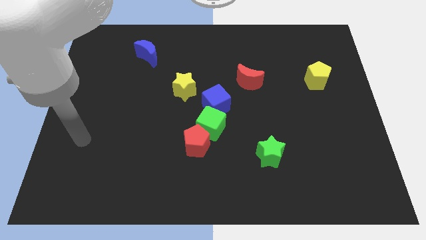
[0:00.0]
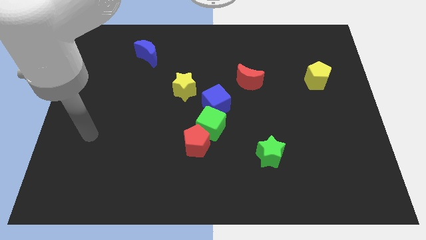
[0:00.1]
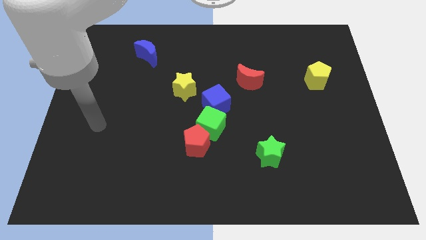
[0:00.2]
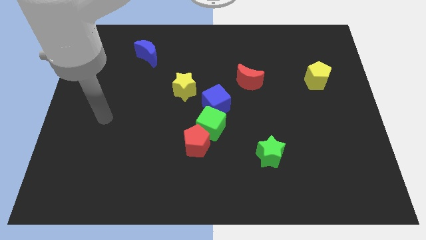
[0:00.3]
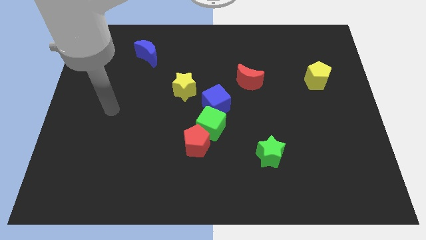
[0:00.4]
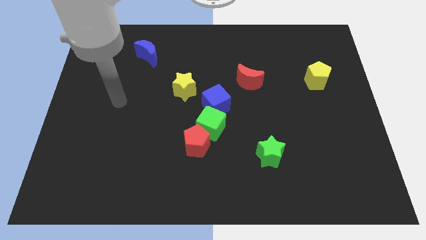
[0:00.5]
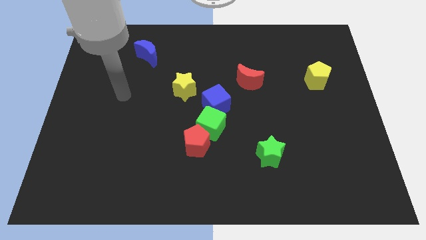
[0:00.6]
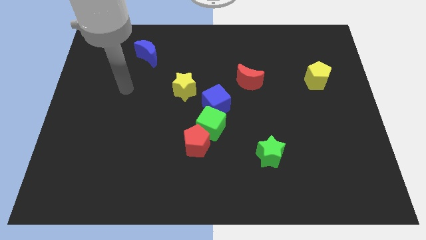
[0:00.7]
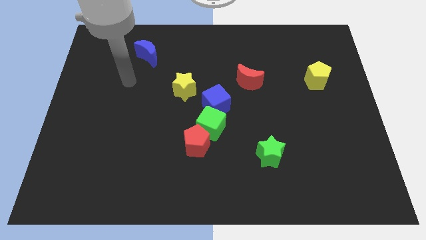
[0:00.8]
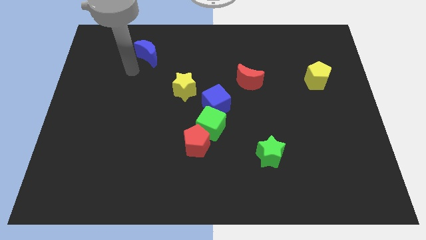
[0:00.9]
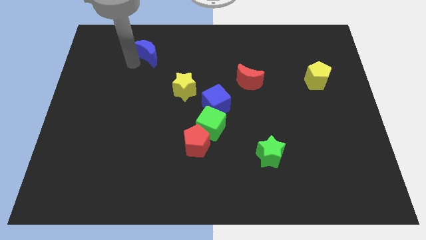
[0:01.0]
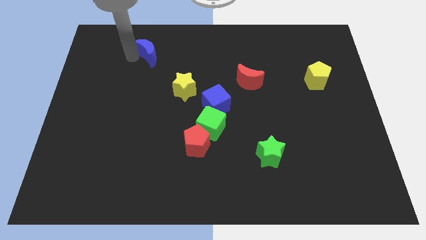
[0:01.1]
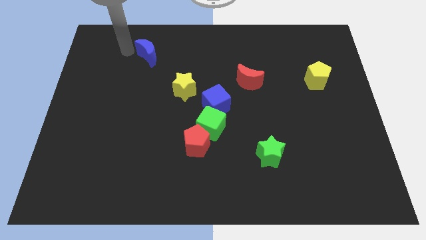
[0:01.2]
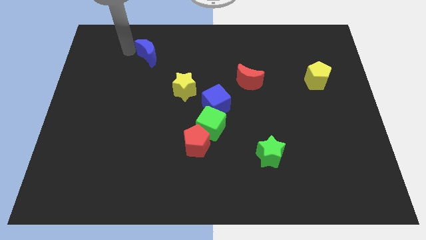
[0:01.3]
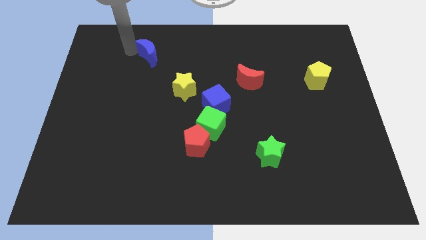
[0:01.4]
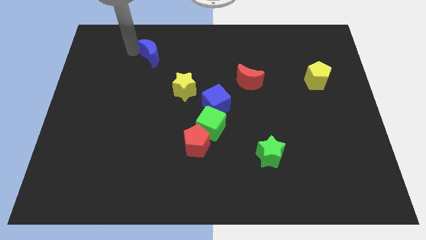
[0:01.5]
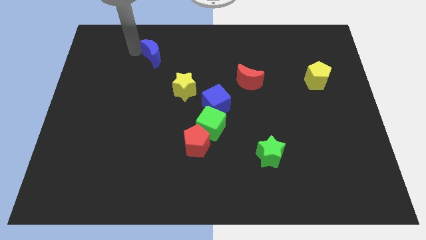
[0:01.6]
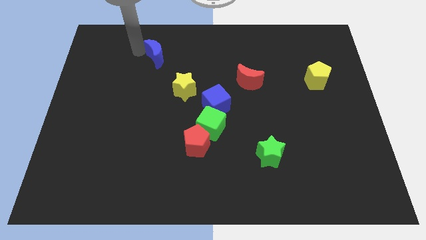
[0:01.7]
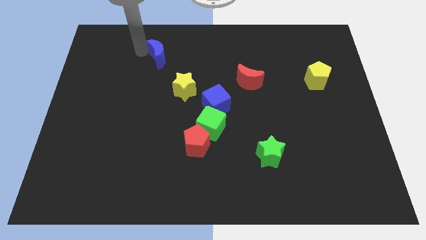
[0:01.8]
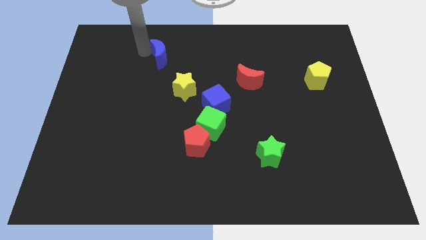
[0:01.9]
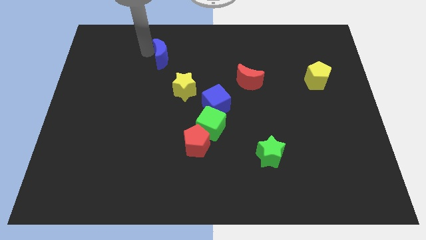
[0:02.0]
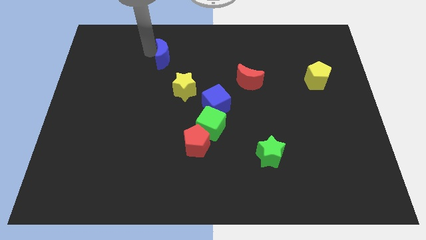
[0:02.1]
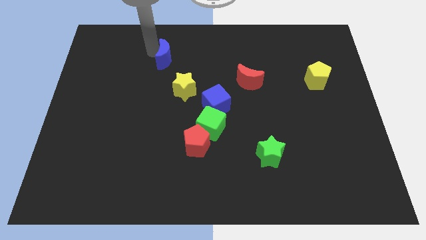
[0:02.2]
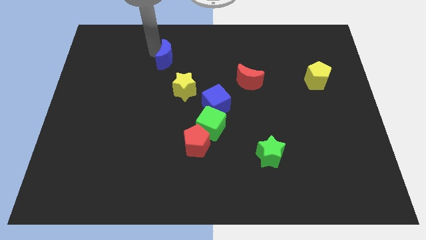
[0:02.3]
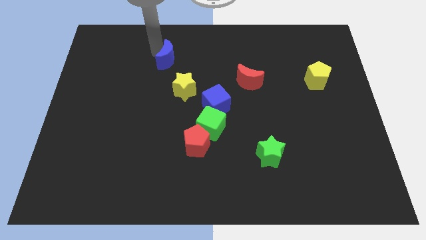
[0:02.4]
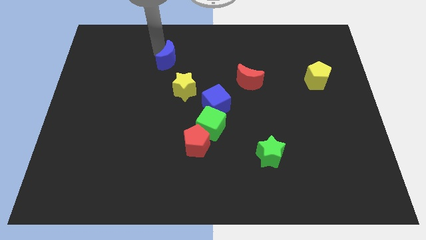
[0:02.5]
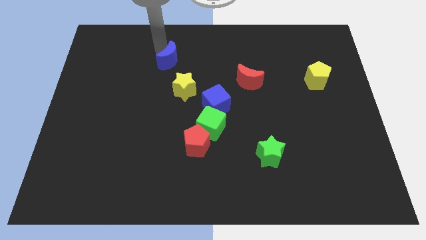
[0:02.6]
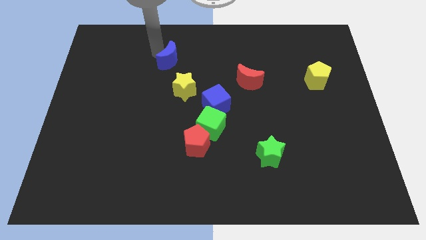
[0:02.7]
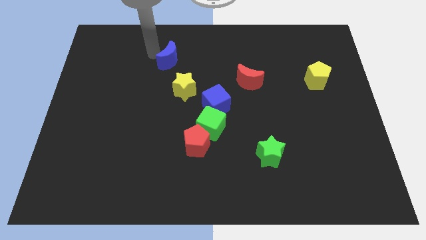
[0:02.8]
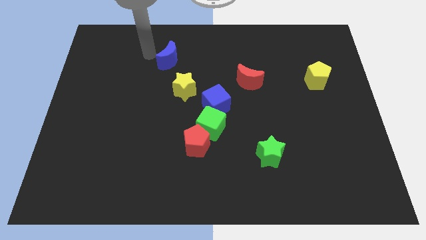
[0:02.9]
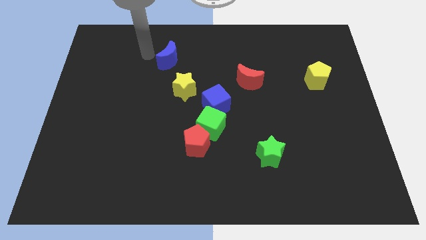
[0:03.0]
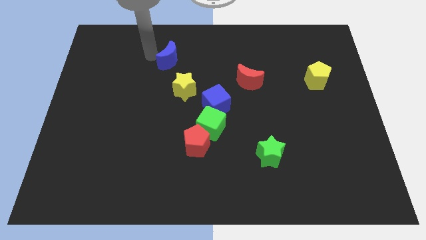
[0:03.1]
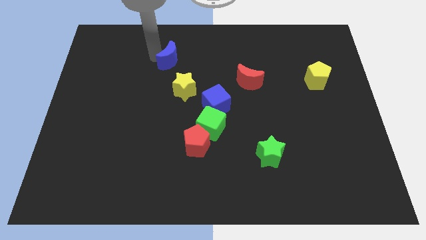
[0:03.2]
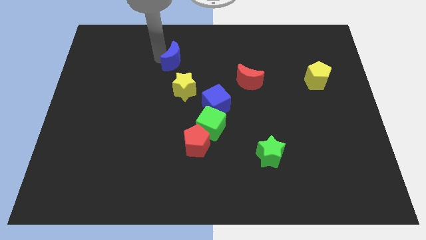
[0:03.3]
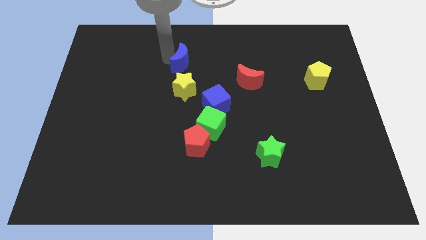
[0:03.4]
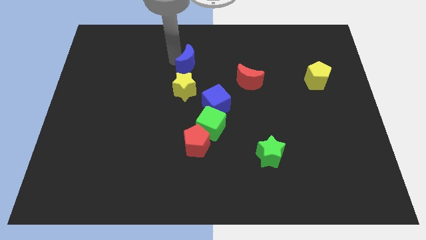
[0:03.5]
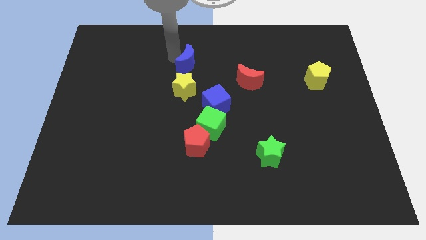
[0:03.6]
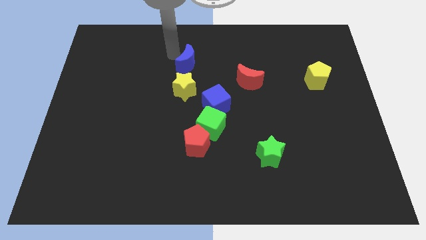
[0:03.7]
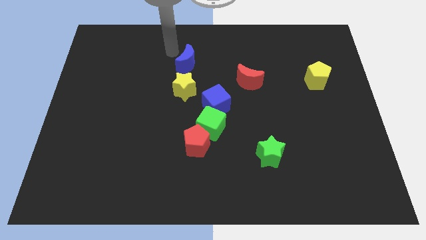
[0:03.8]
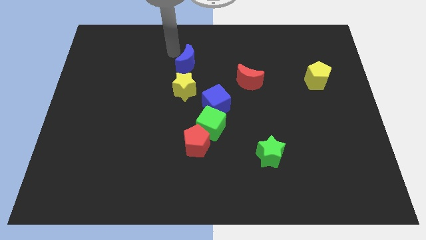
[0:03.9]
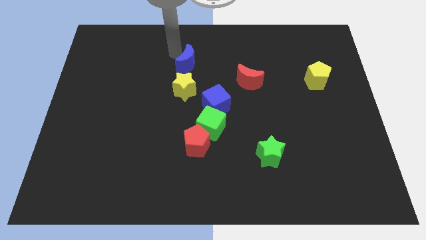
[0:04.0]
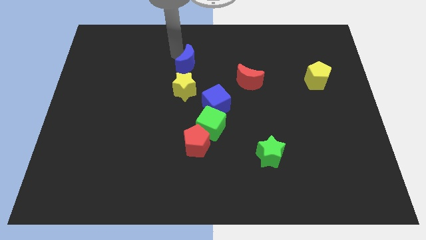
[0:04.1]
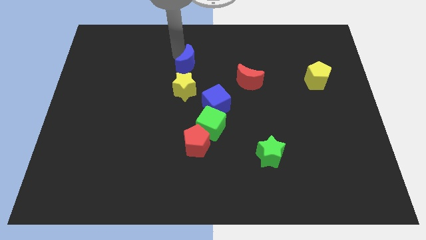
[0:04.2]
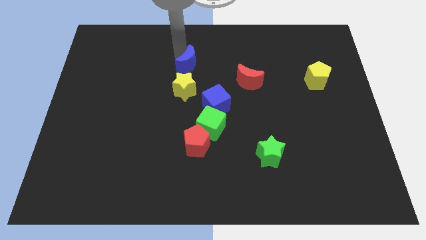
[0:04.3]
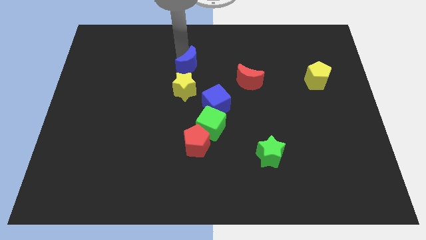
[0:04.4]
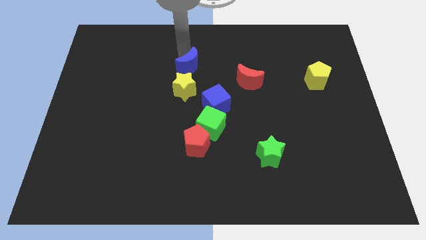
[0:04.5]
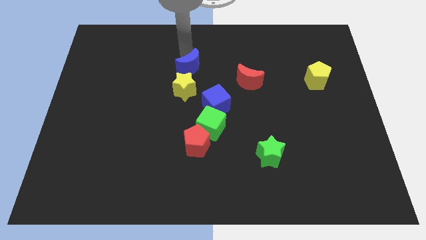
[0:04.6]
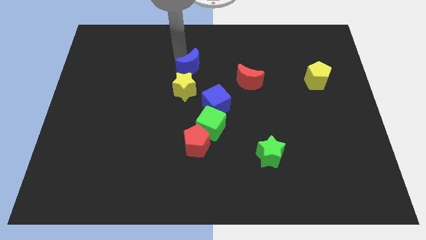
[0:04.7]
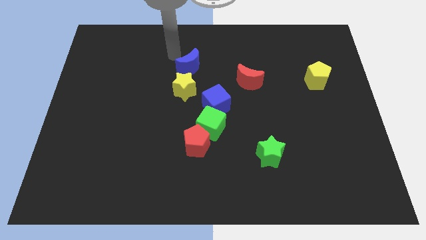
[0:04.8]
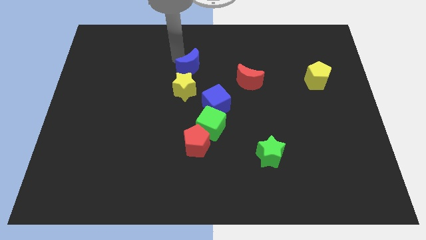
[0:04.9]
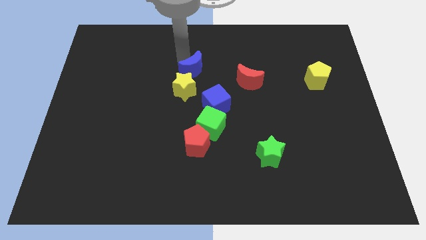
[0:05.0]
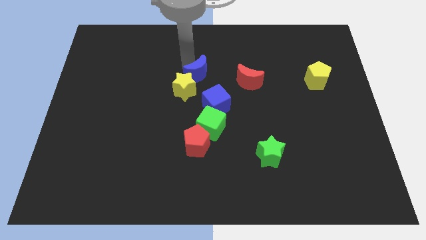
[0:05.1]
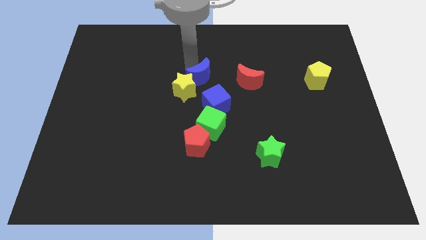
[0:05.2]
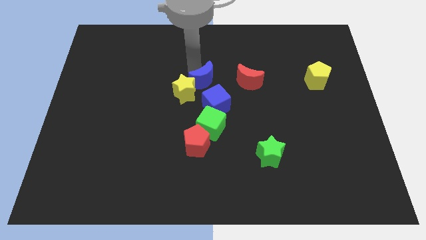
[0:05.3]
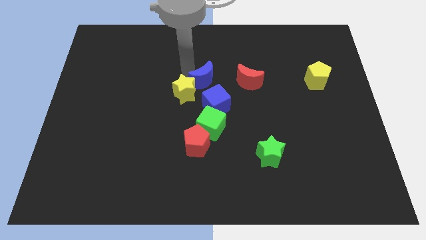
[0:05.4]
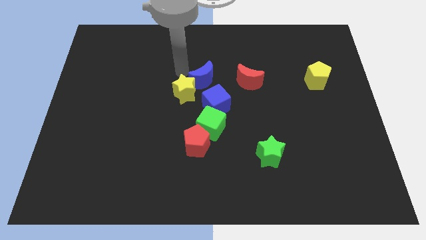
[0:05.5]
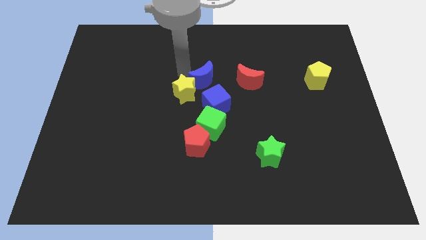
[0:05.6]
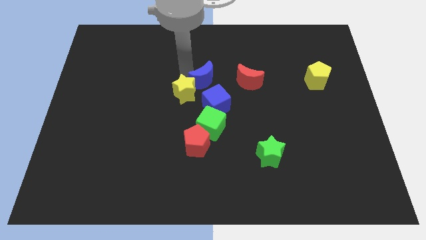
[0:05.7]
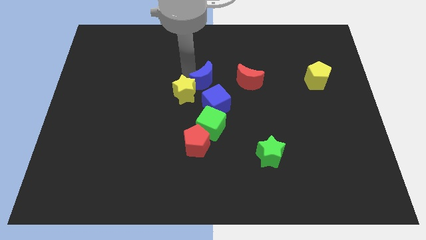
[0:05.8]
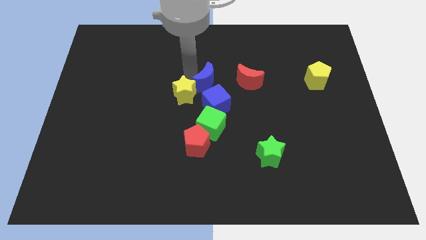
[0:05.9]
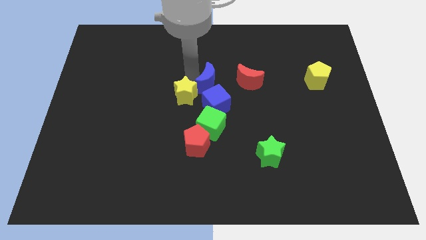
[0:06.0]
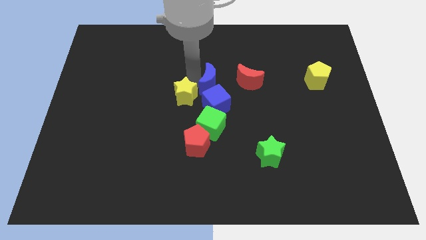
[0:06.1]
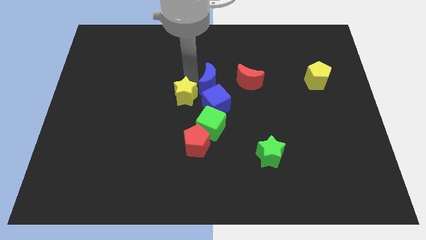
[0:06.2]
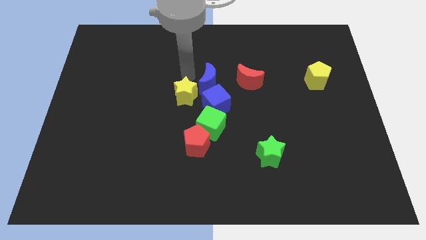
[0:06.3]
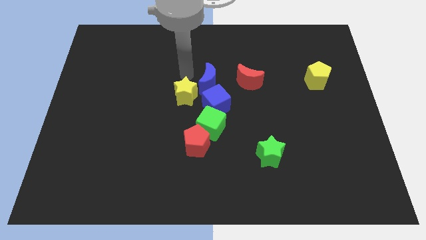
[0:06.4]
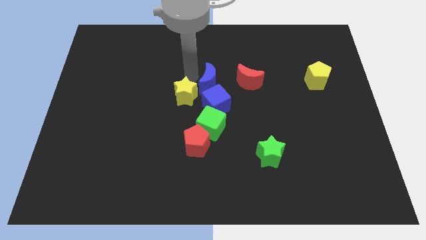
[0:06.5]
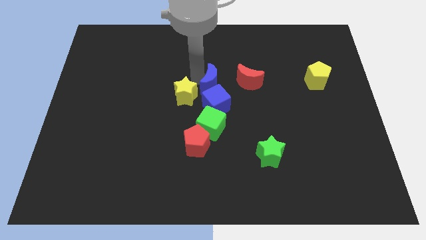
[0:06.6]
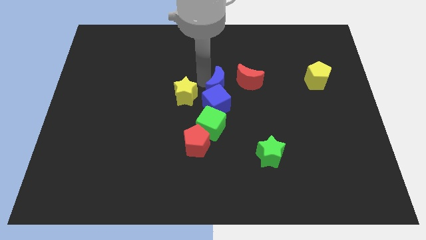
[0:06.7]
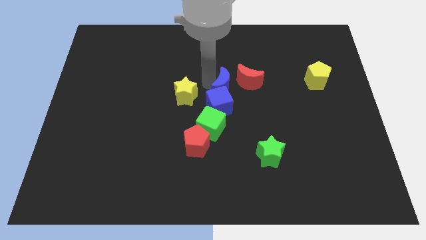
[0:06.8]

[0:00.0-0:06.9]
push the blue moon down and then to the right

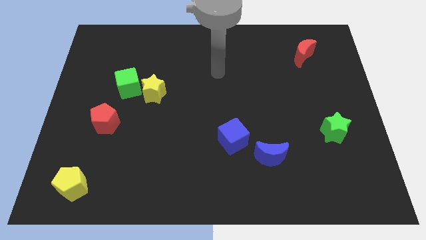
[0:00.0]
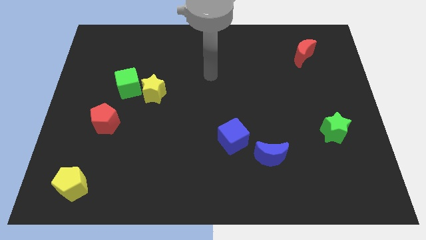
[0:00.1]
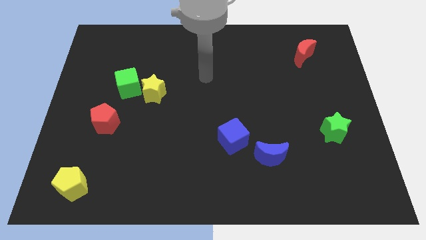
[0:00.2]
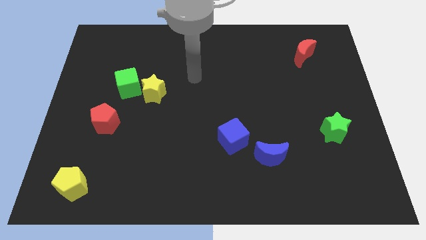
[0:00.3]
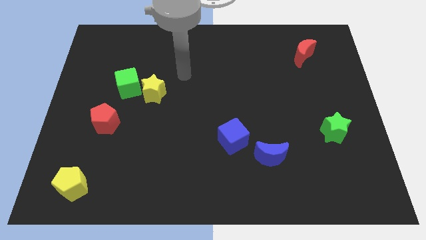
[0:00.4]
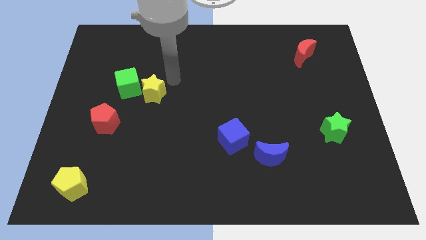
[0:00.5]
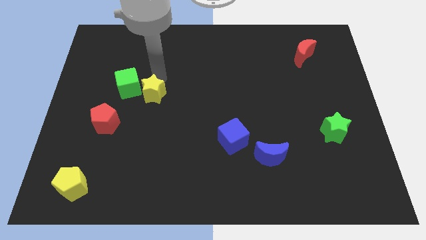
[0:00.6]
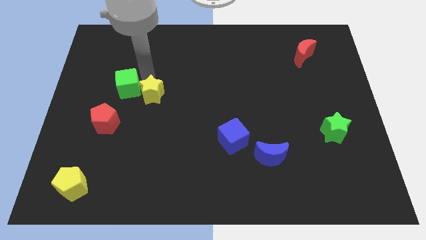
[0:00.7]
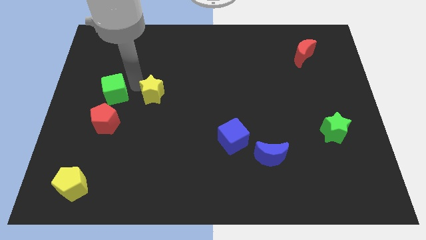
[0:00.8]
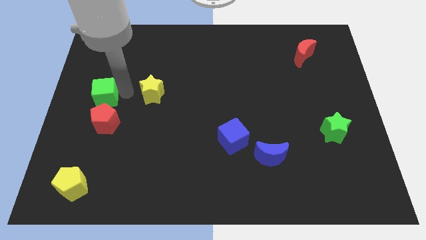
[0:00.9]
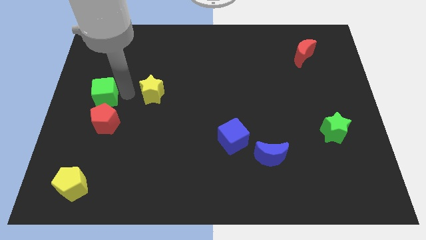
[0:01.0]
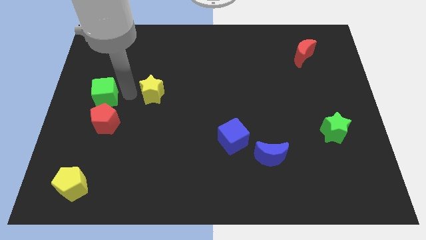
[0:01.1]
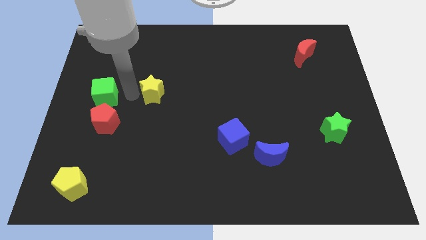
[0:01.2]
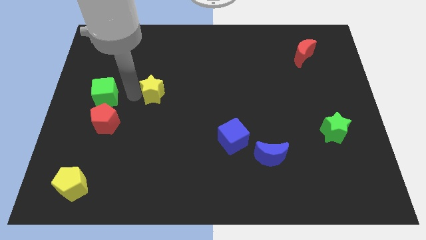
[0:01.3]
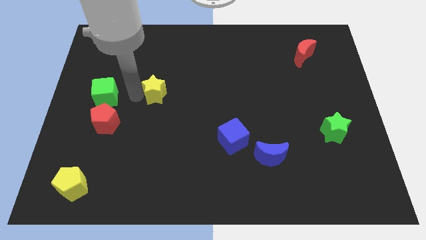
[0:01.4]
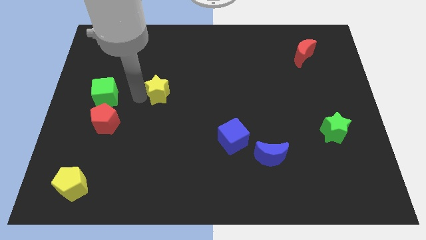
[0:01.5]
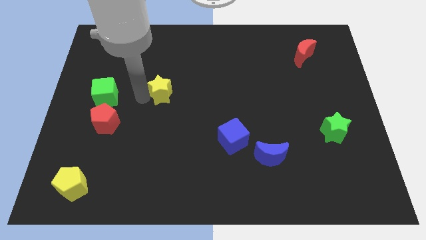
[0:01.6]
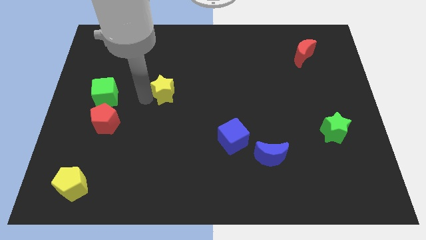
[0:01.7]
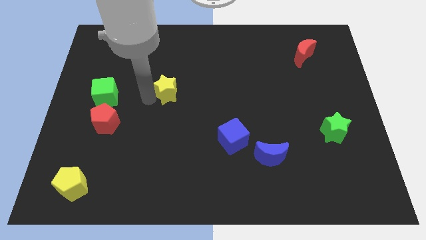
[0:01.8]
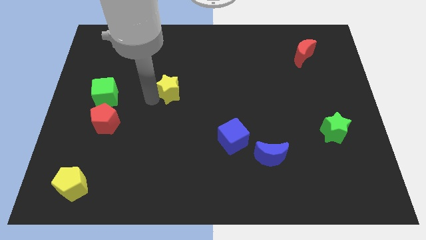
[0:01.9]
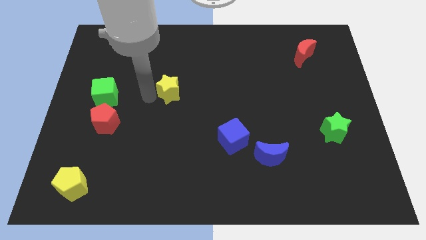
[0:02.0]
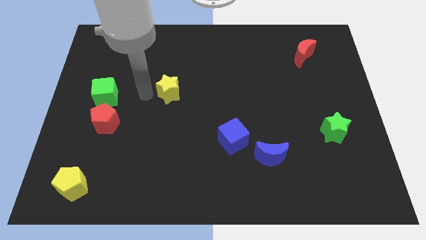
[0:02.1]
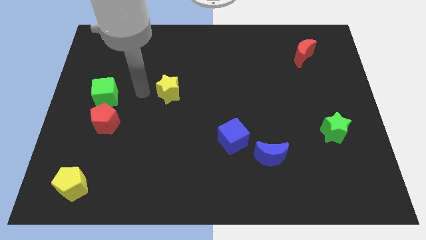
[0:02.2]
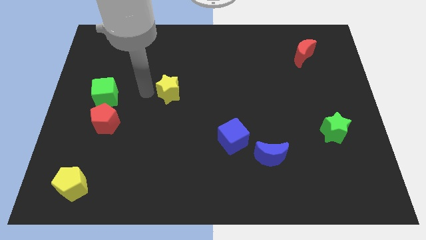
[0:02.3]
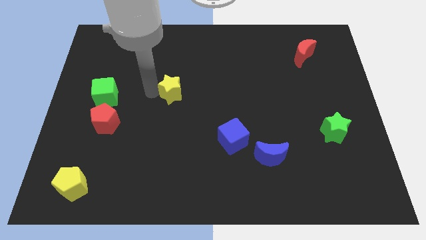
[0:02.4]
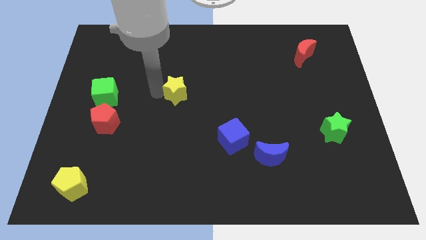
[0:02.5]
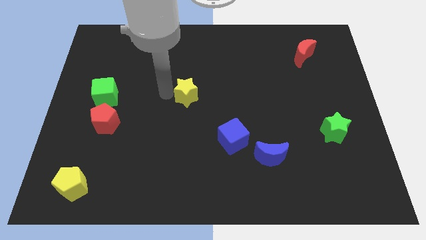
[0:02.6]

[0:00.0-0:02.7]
move the yellow star right a little bit
